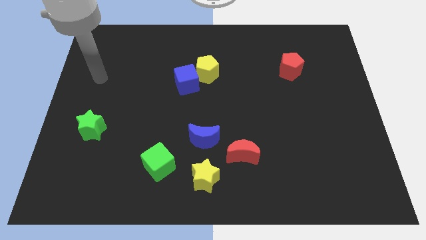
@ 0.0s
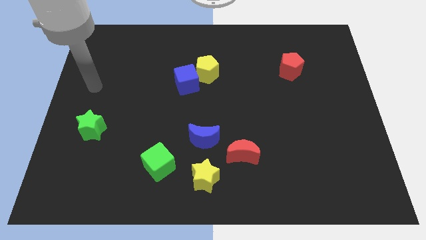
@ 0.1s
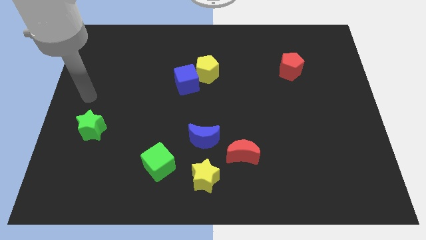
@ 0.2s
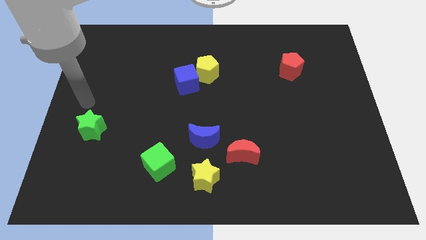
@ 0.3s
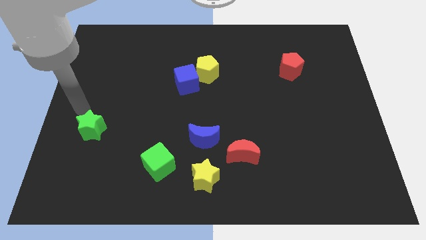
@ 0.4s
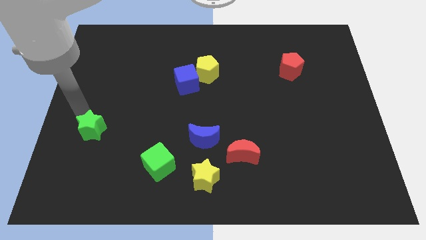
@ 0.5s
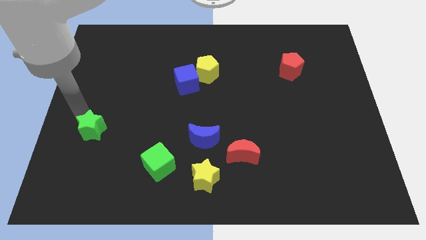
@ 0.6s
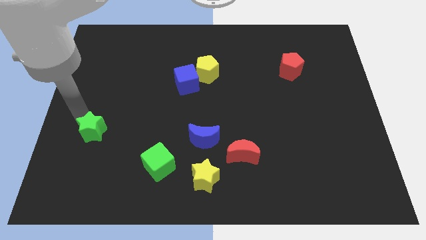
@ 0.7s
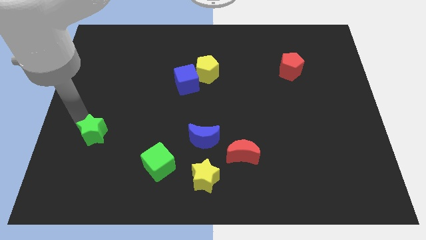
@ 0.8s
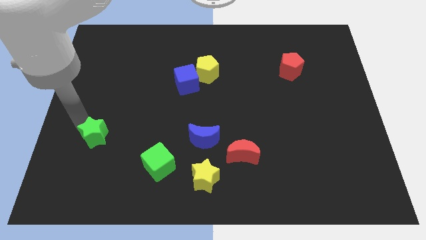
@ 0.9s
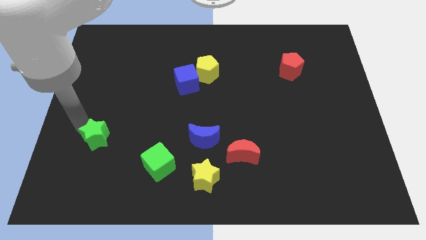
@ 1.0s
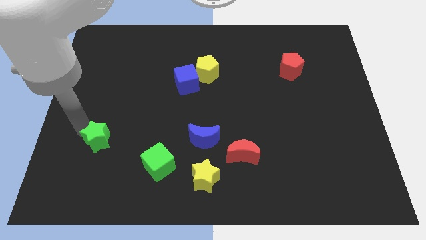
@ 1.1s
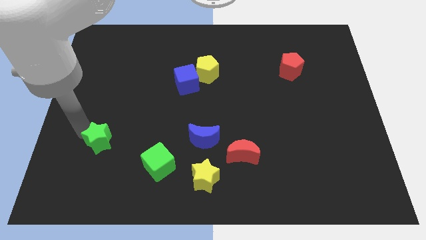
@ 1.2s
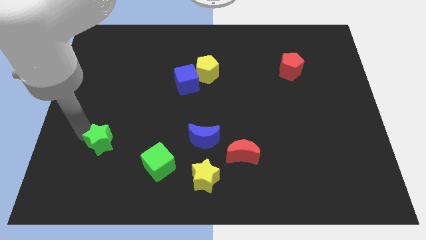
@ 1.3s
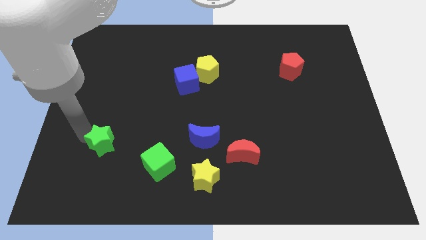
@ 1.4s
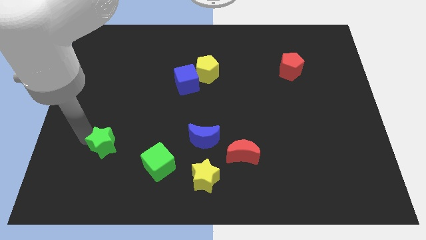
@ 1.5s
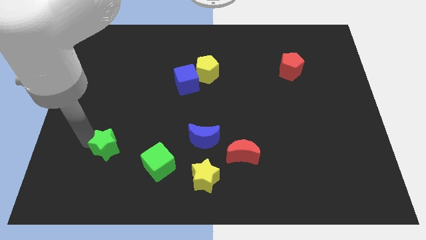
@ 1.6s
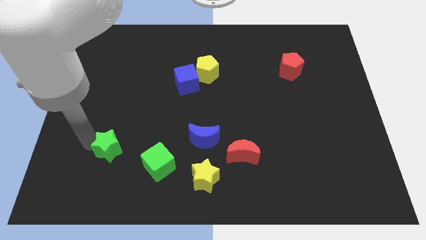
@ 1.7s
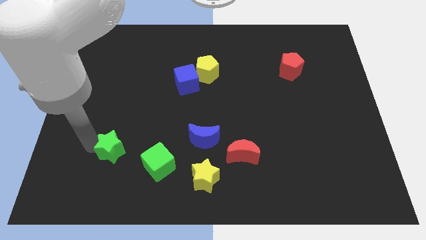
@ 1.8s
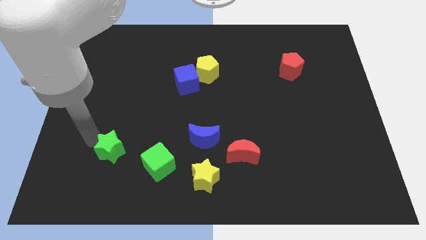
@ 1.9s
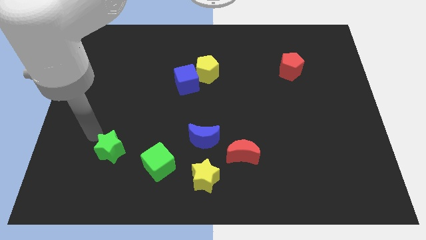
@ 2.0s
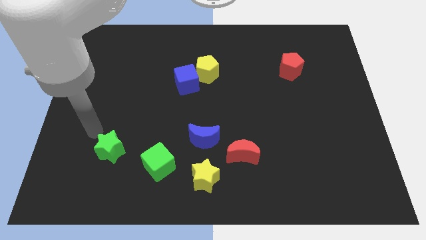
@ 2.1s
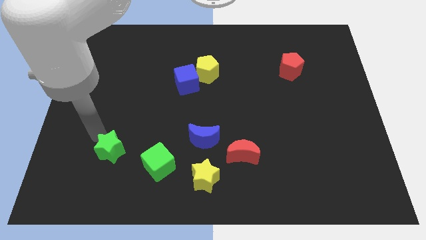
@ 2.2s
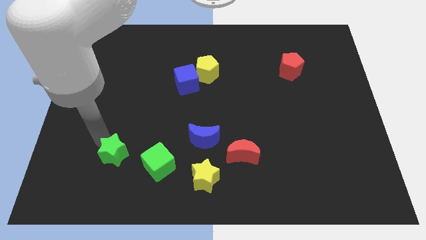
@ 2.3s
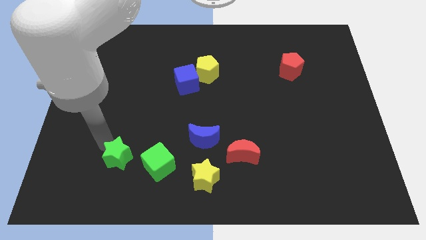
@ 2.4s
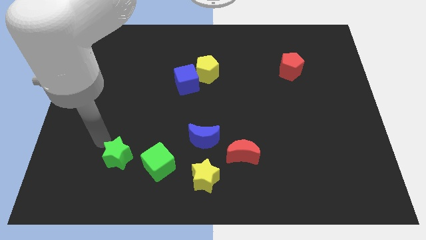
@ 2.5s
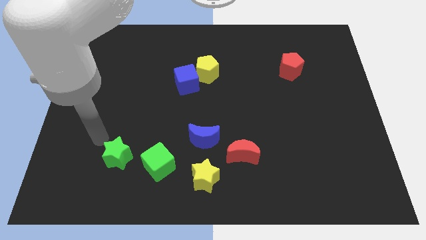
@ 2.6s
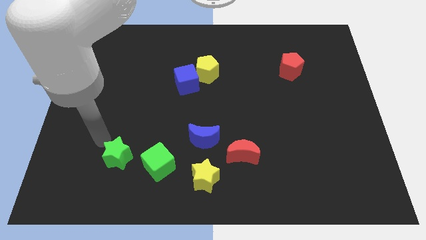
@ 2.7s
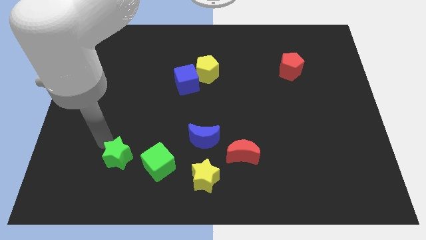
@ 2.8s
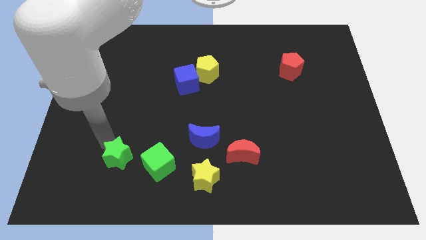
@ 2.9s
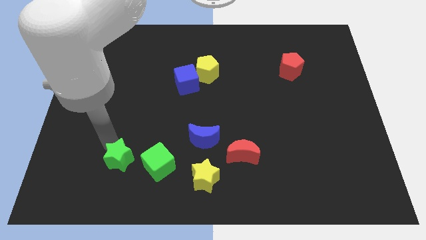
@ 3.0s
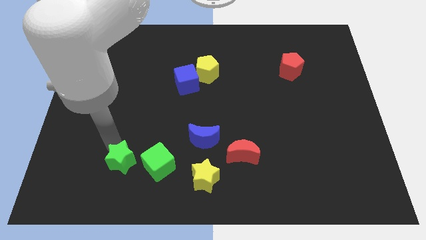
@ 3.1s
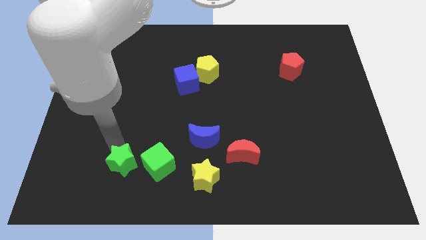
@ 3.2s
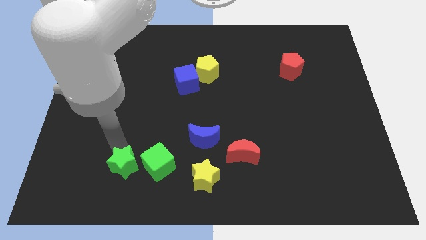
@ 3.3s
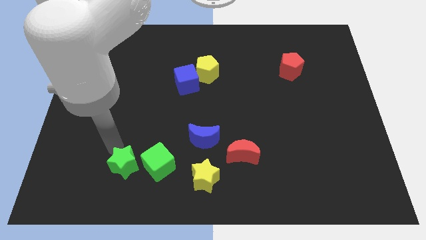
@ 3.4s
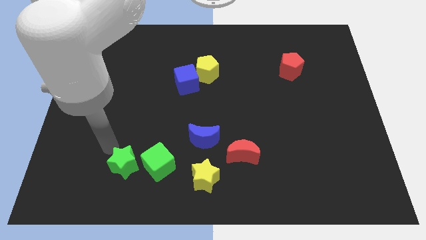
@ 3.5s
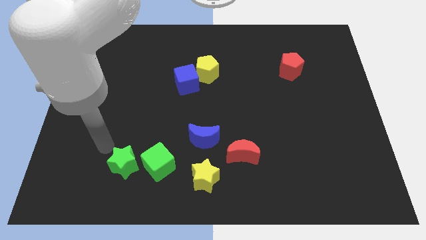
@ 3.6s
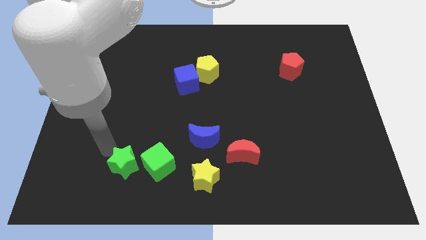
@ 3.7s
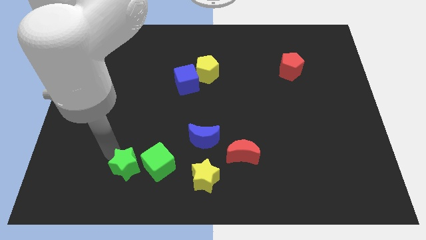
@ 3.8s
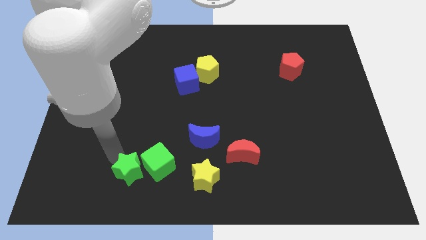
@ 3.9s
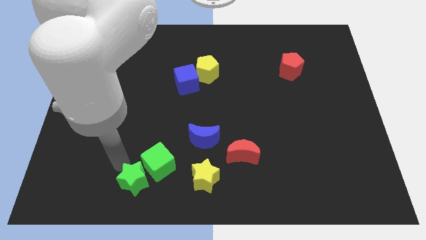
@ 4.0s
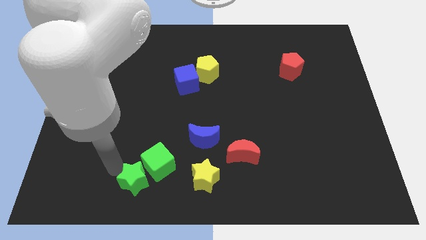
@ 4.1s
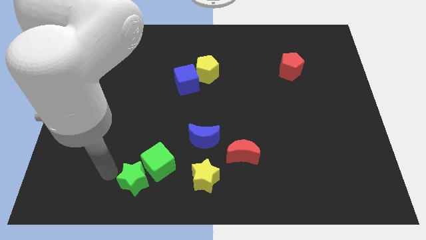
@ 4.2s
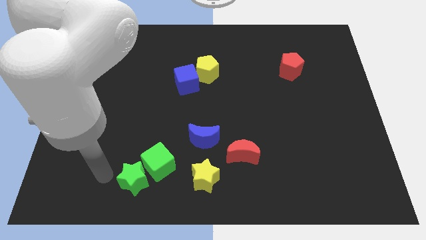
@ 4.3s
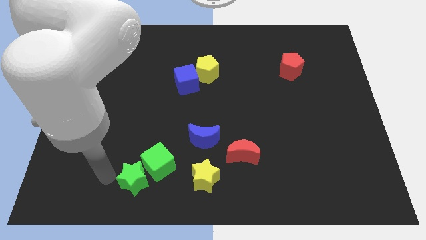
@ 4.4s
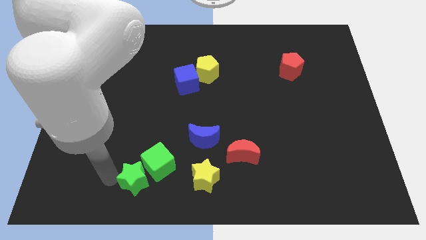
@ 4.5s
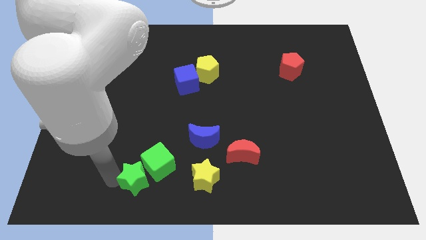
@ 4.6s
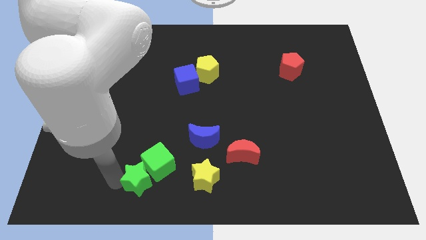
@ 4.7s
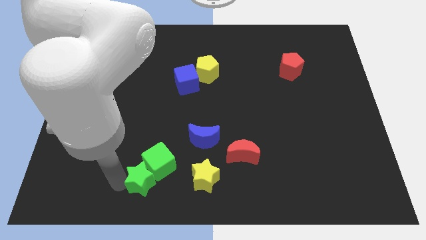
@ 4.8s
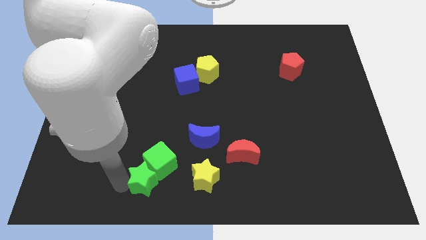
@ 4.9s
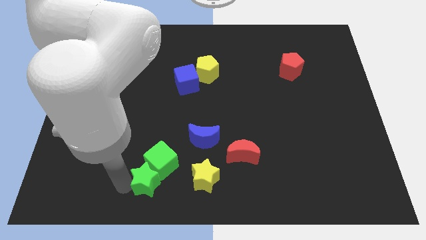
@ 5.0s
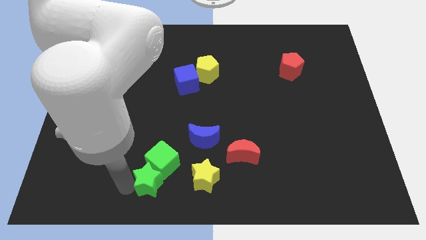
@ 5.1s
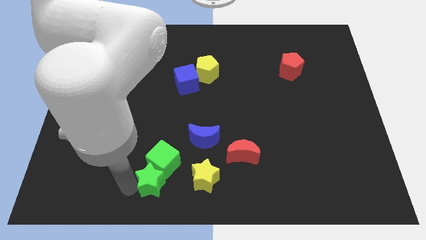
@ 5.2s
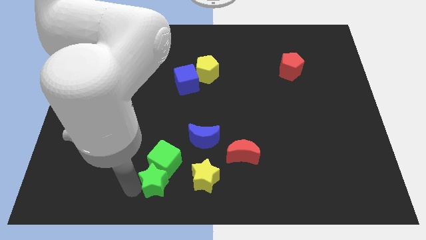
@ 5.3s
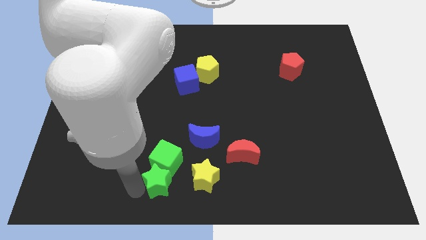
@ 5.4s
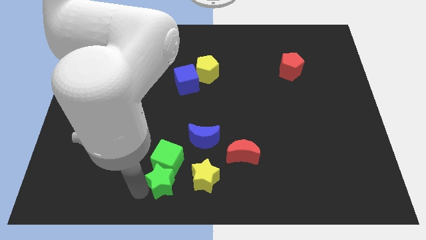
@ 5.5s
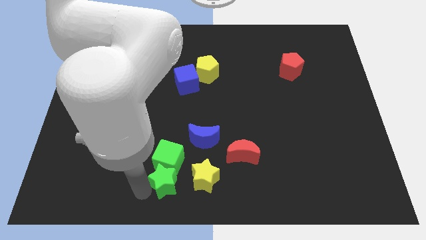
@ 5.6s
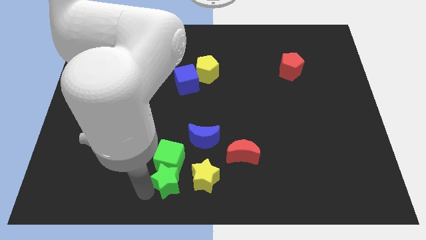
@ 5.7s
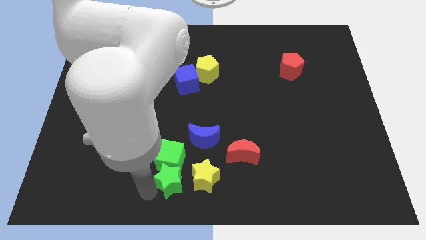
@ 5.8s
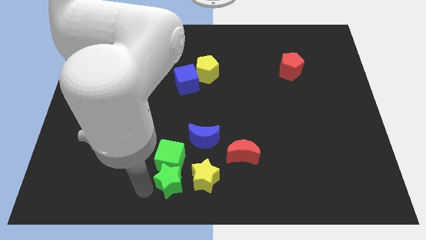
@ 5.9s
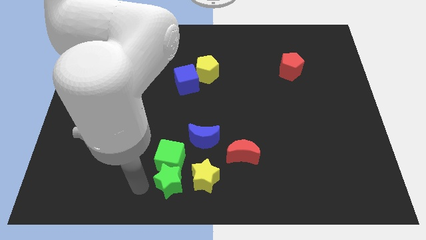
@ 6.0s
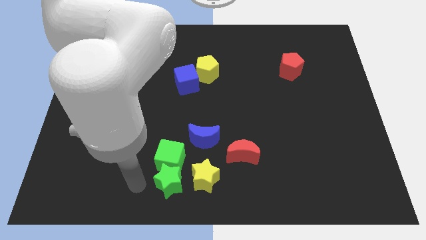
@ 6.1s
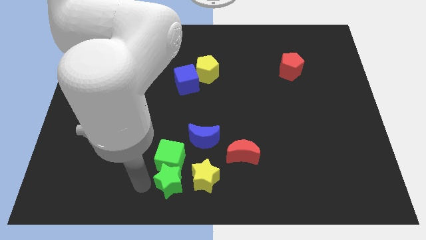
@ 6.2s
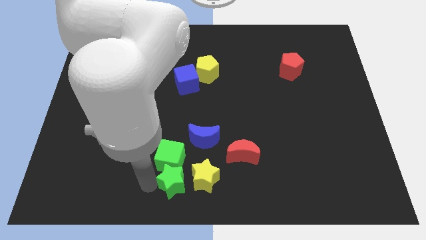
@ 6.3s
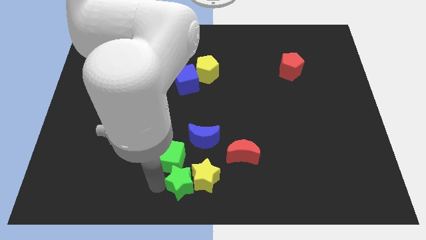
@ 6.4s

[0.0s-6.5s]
put the green star towards the yellow star
